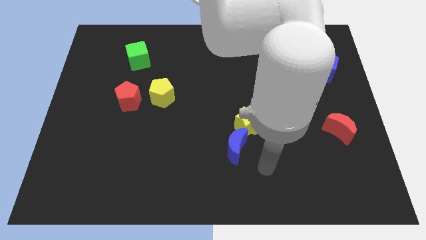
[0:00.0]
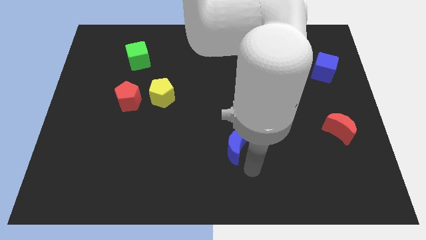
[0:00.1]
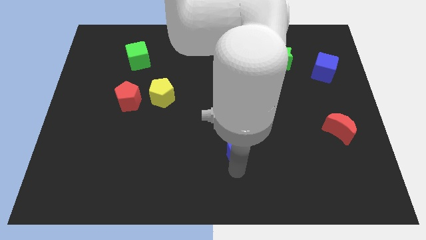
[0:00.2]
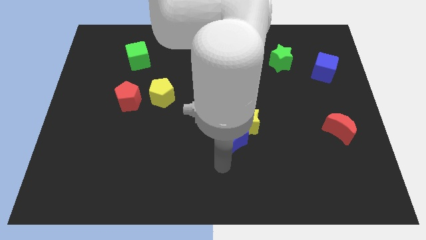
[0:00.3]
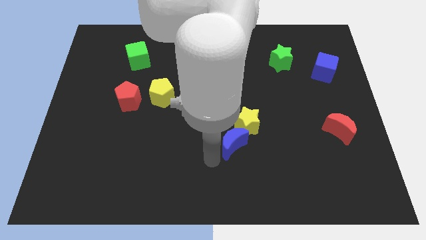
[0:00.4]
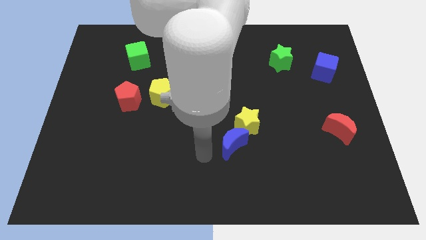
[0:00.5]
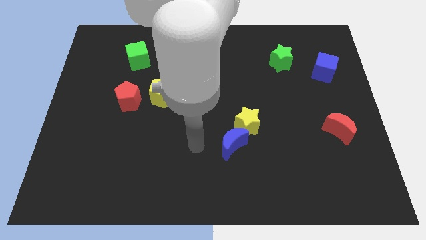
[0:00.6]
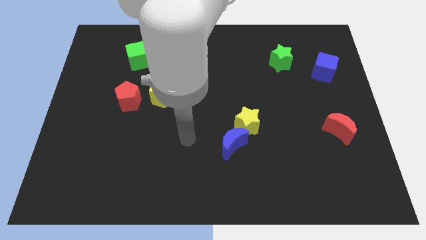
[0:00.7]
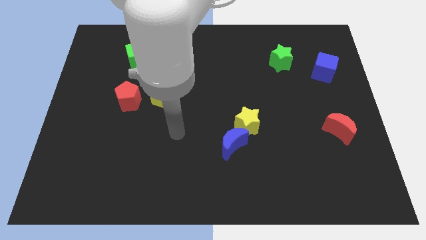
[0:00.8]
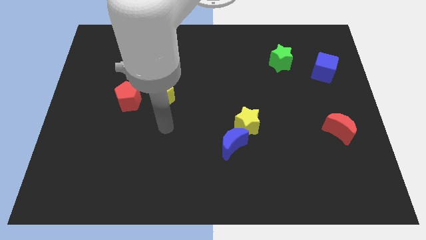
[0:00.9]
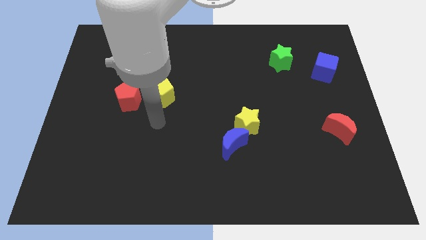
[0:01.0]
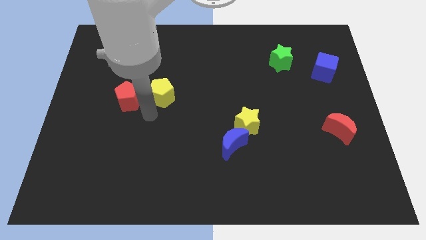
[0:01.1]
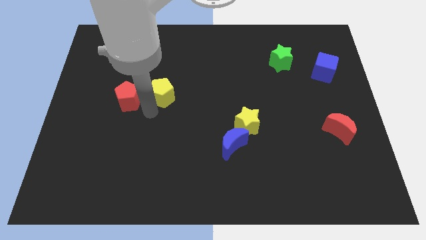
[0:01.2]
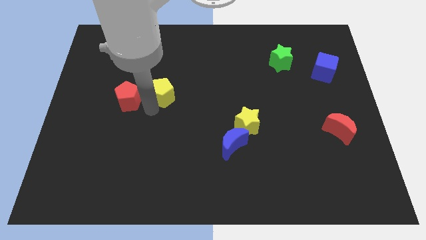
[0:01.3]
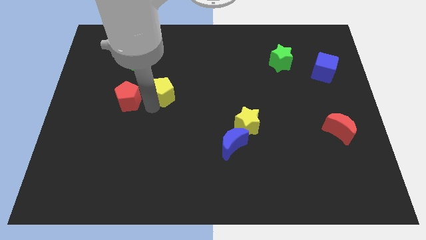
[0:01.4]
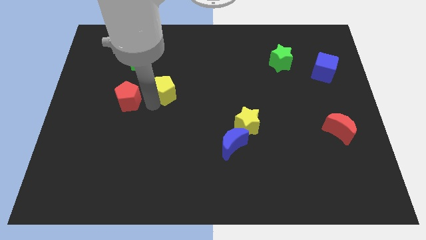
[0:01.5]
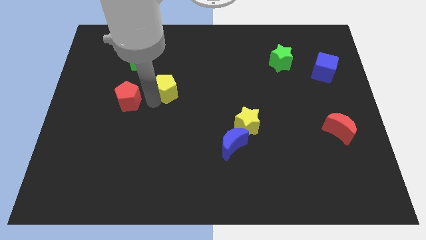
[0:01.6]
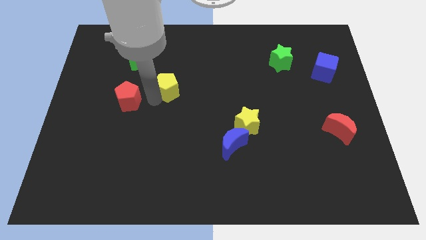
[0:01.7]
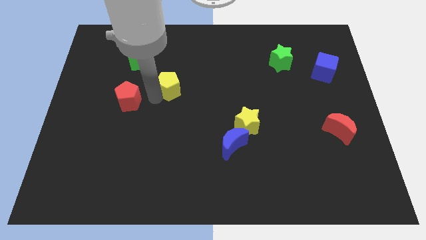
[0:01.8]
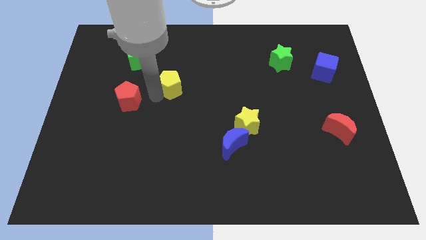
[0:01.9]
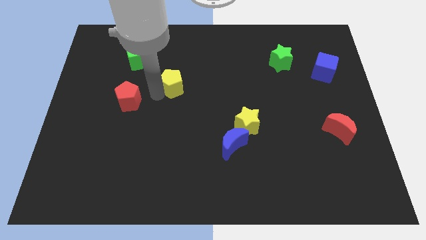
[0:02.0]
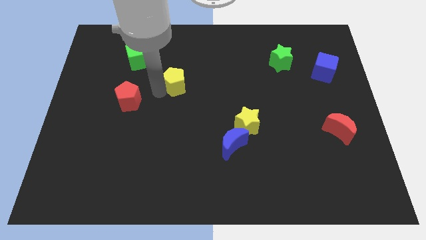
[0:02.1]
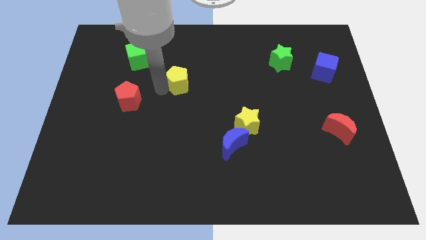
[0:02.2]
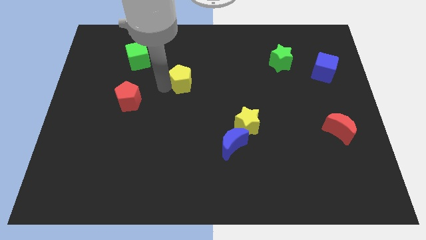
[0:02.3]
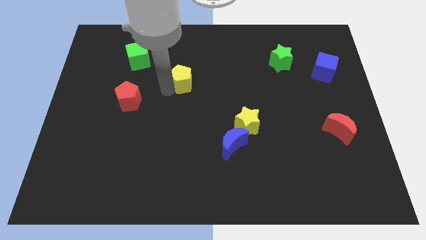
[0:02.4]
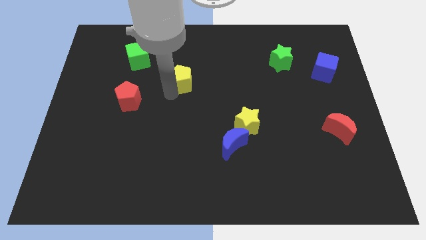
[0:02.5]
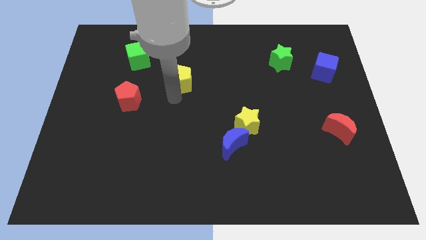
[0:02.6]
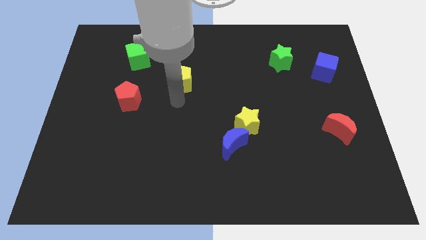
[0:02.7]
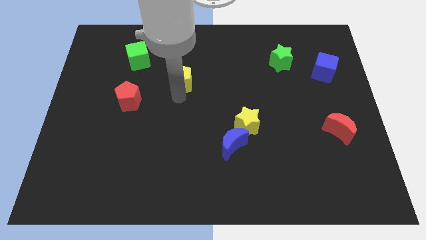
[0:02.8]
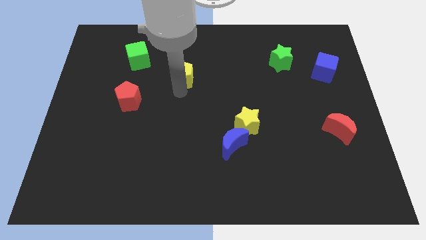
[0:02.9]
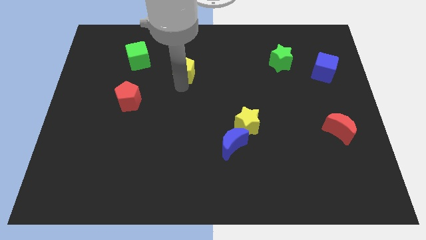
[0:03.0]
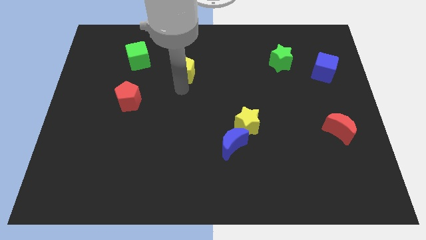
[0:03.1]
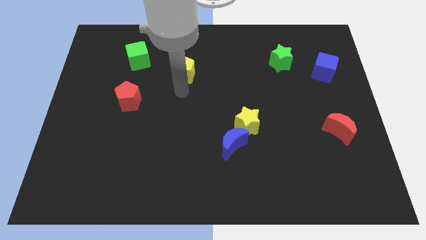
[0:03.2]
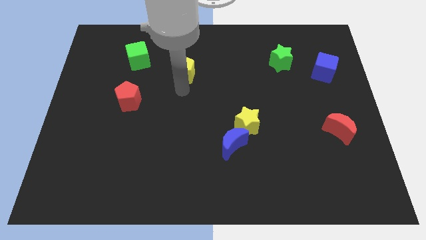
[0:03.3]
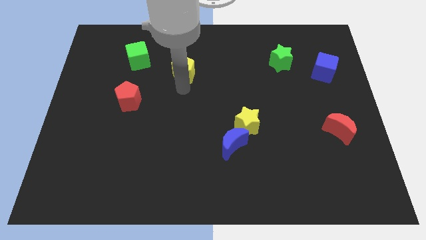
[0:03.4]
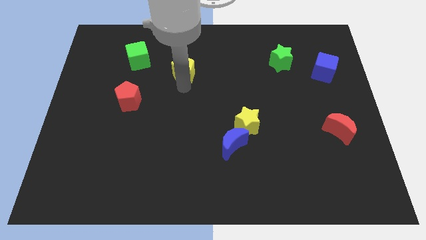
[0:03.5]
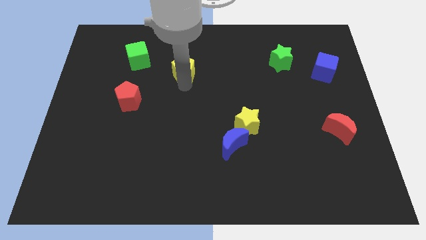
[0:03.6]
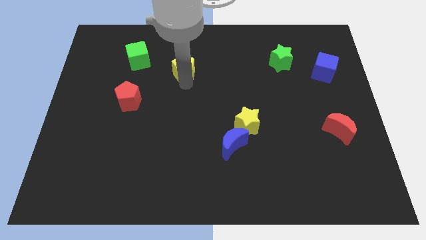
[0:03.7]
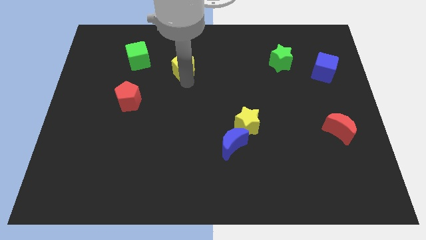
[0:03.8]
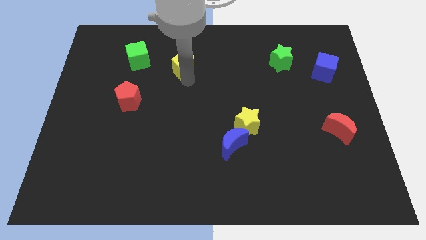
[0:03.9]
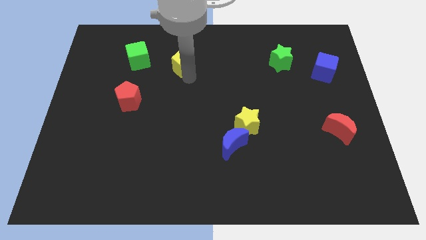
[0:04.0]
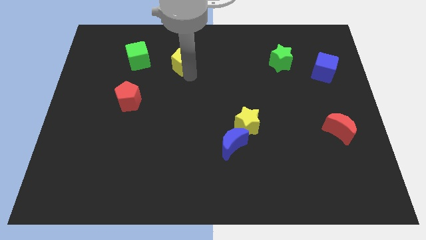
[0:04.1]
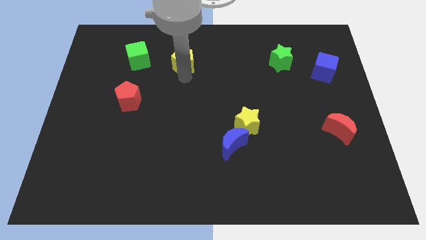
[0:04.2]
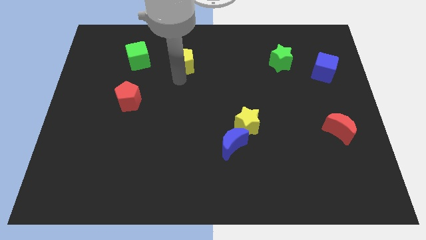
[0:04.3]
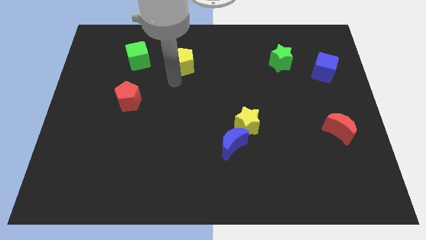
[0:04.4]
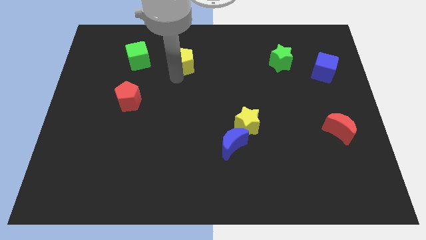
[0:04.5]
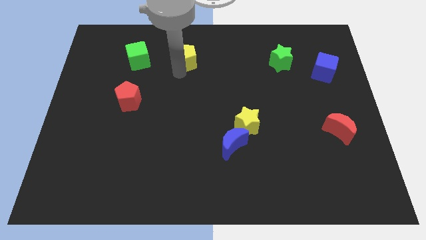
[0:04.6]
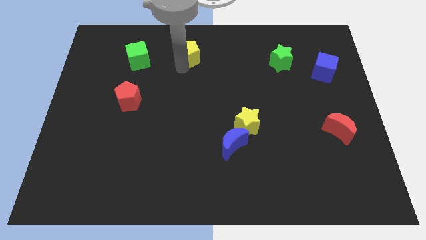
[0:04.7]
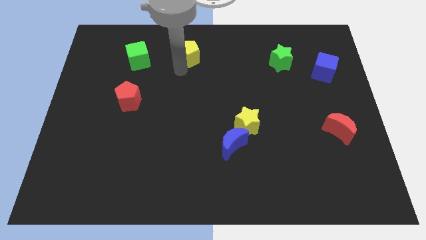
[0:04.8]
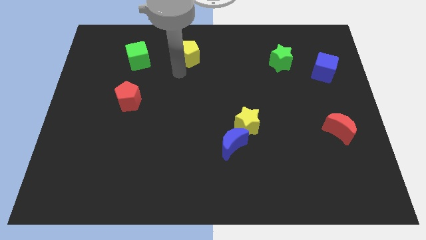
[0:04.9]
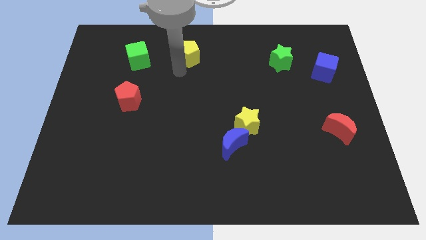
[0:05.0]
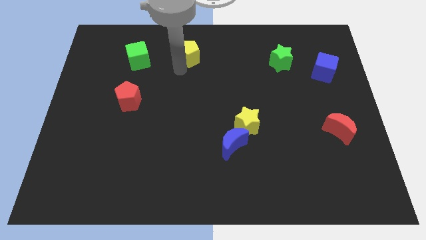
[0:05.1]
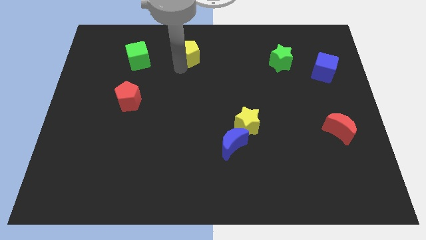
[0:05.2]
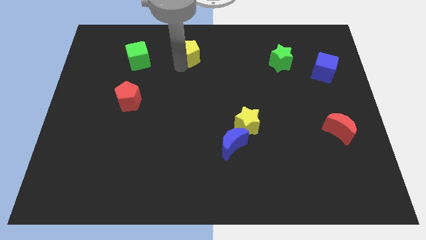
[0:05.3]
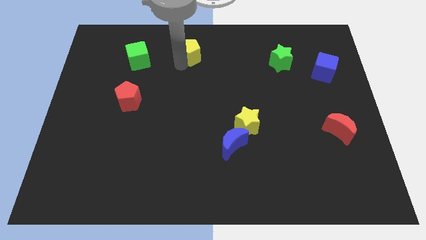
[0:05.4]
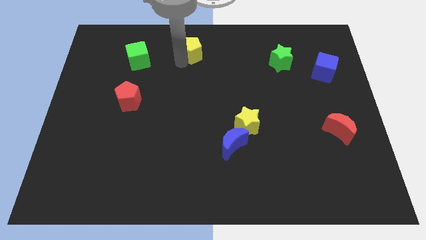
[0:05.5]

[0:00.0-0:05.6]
put the yellow pentagon to the towards your base

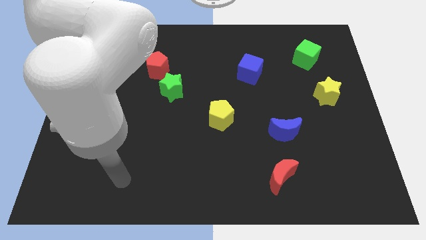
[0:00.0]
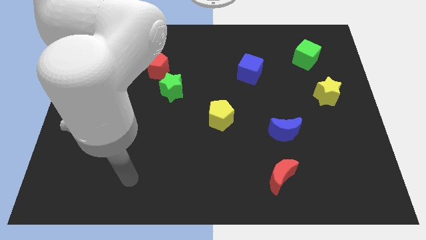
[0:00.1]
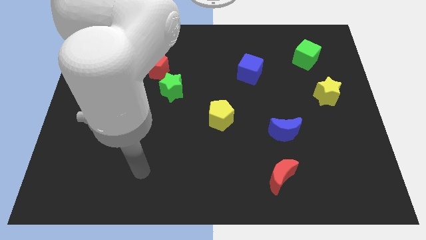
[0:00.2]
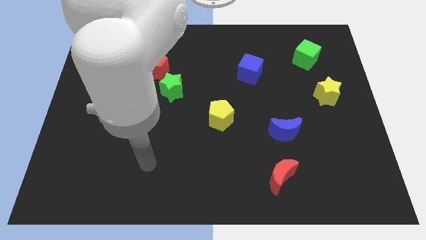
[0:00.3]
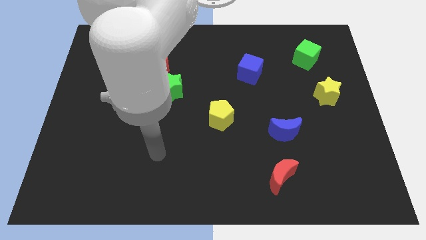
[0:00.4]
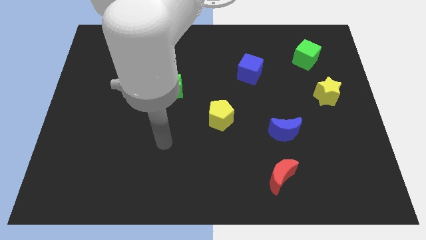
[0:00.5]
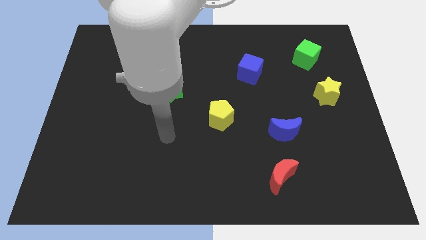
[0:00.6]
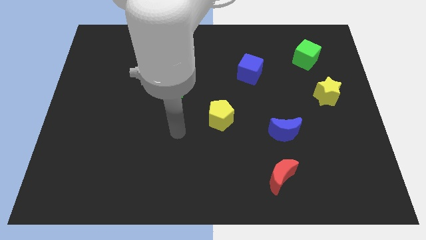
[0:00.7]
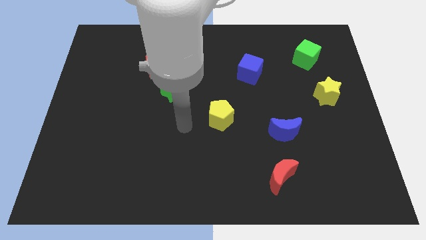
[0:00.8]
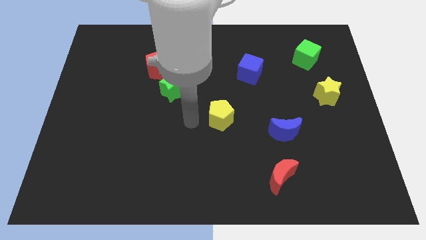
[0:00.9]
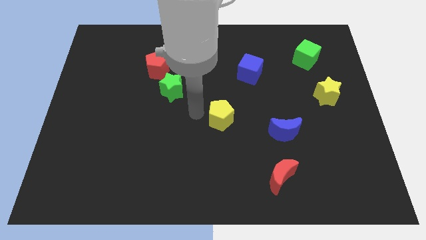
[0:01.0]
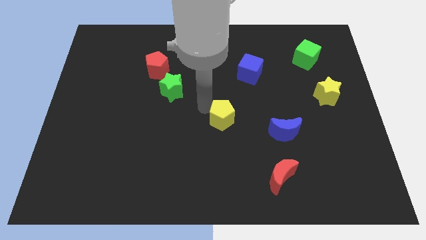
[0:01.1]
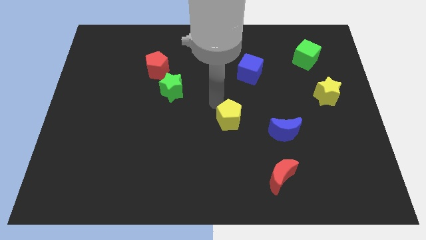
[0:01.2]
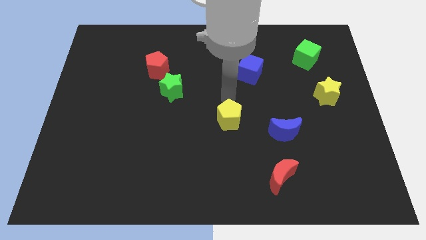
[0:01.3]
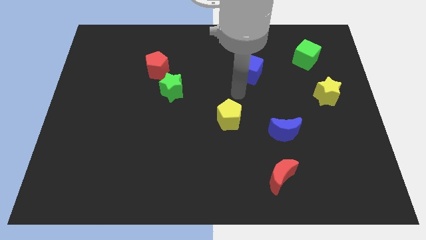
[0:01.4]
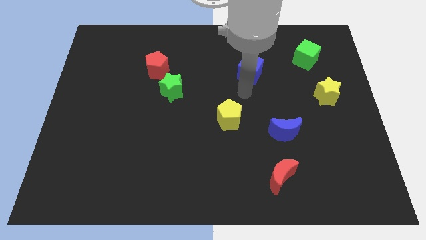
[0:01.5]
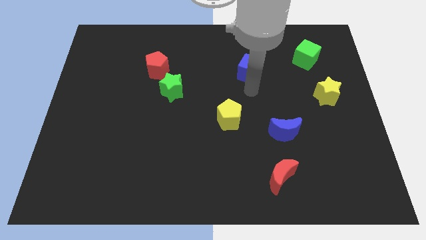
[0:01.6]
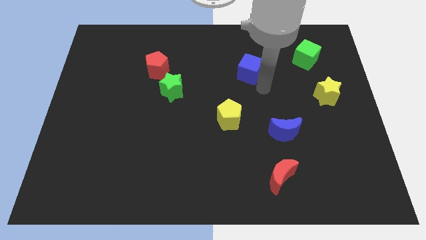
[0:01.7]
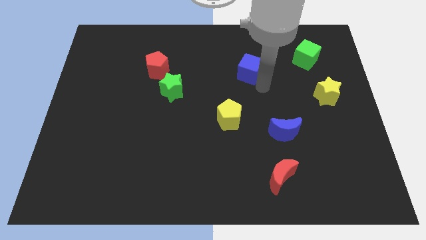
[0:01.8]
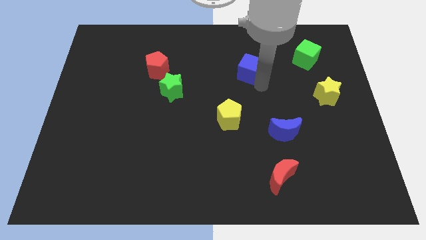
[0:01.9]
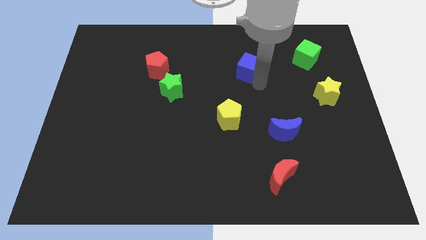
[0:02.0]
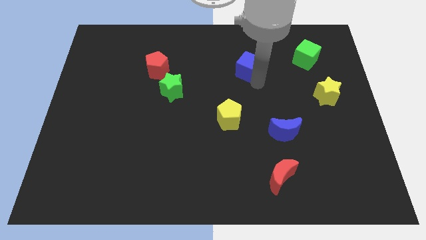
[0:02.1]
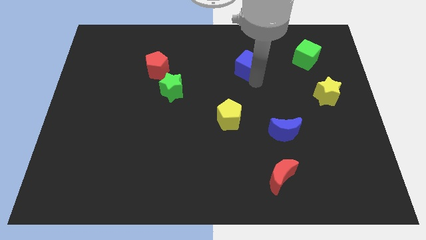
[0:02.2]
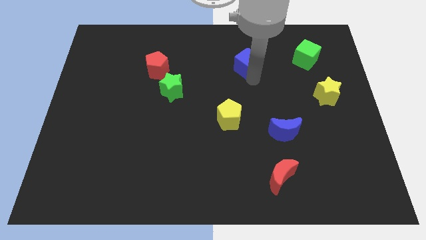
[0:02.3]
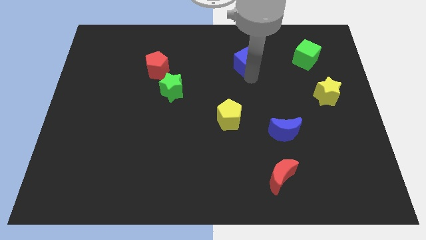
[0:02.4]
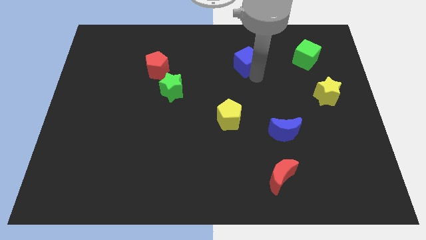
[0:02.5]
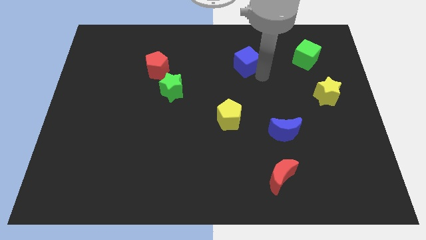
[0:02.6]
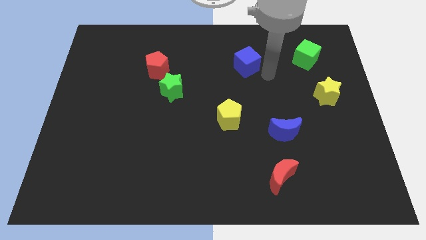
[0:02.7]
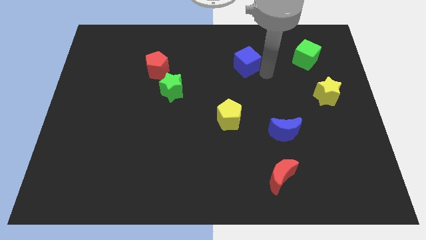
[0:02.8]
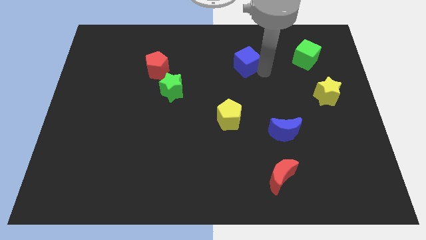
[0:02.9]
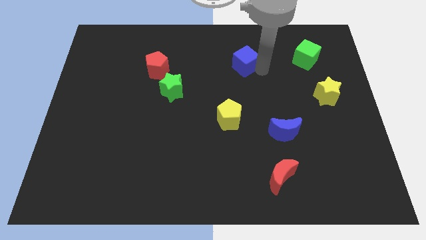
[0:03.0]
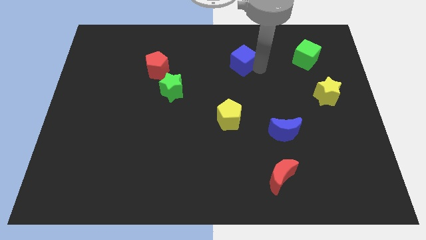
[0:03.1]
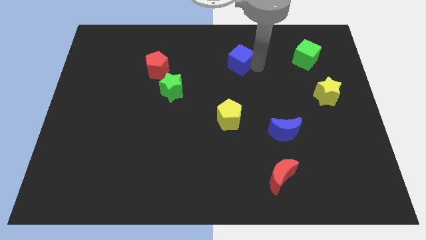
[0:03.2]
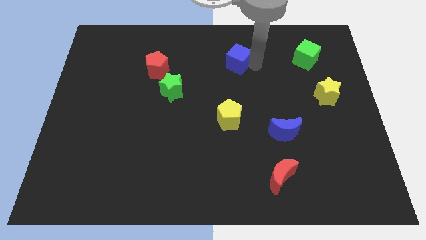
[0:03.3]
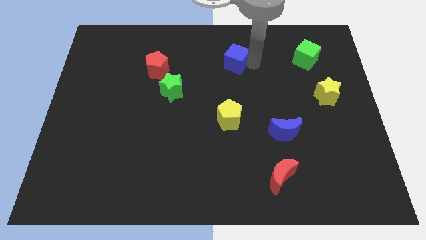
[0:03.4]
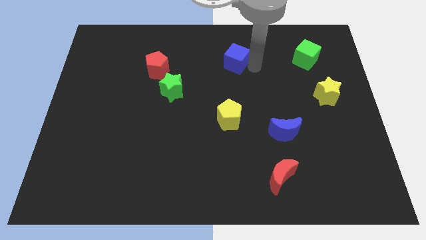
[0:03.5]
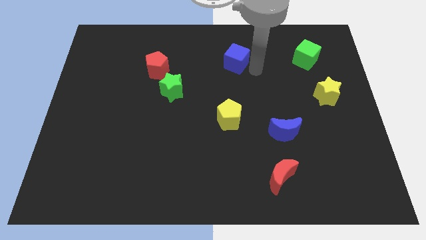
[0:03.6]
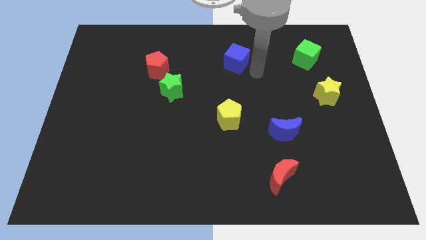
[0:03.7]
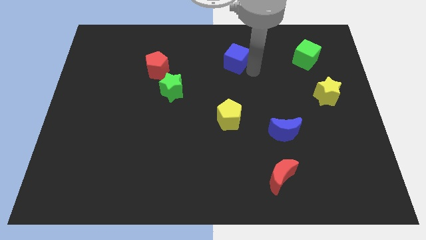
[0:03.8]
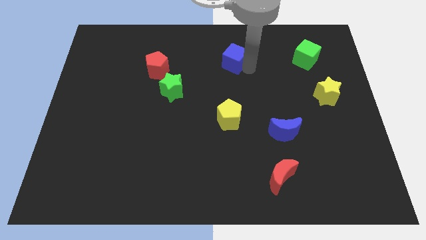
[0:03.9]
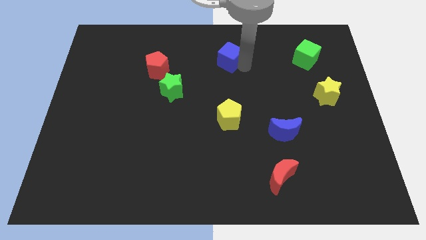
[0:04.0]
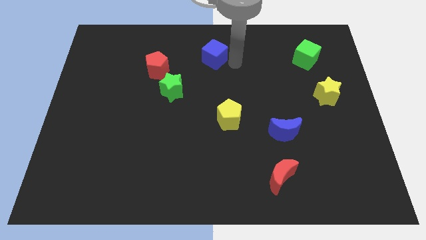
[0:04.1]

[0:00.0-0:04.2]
slide the blue cube to the top side
